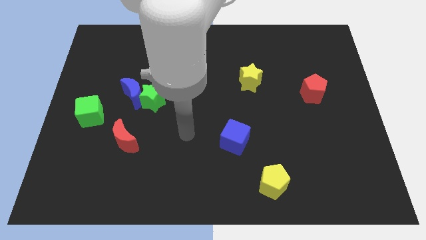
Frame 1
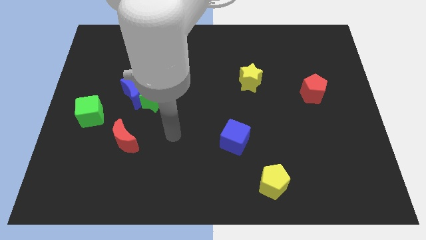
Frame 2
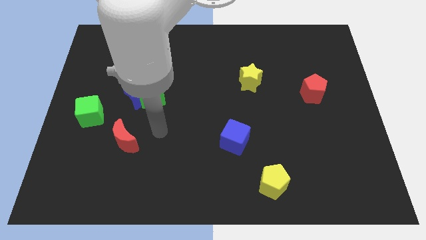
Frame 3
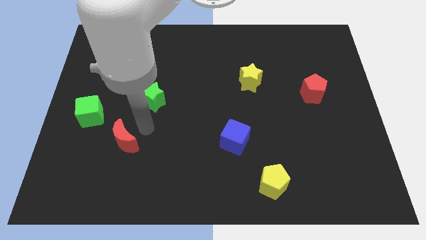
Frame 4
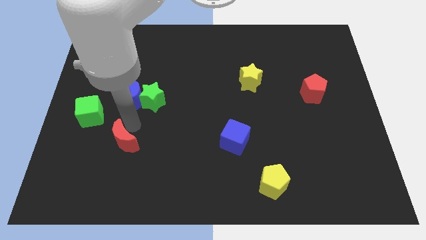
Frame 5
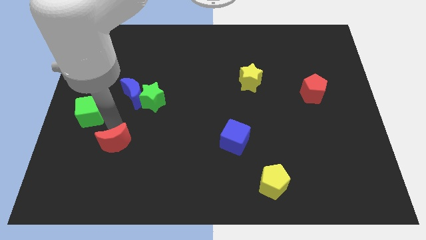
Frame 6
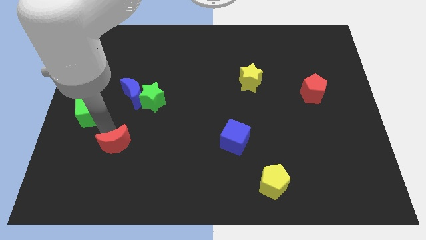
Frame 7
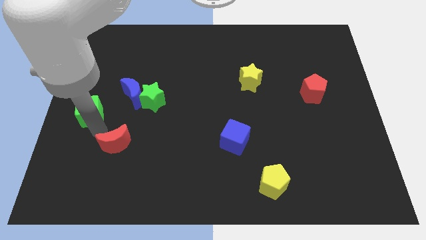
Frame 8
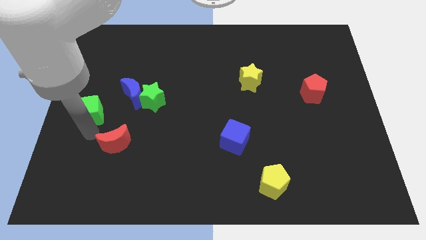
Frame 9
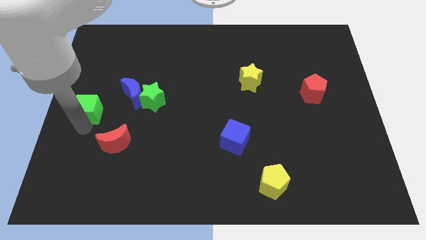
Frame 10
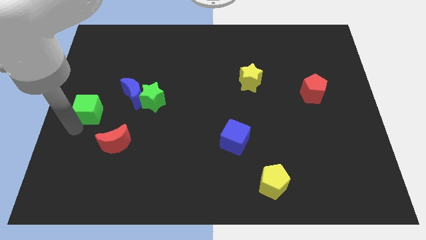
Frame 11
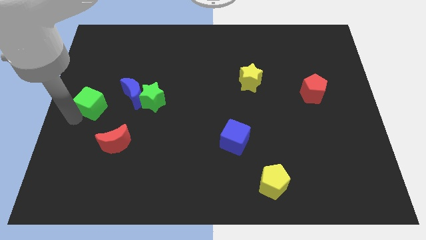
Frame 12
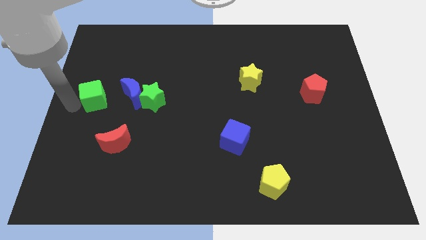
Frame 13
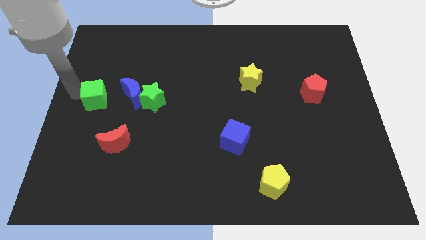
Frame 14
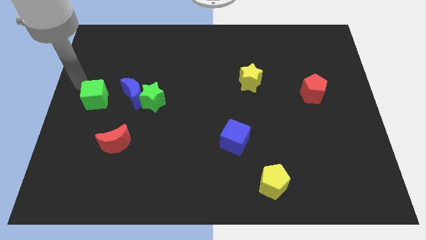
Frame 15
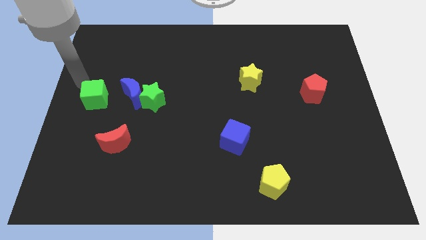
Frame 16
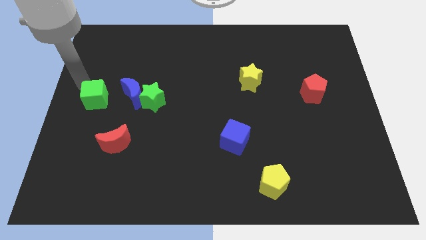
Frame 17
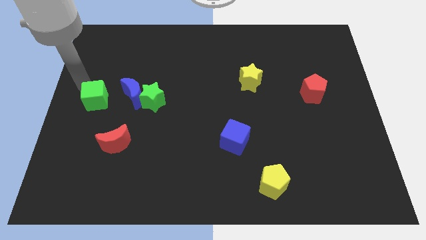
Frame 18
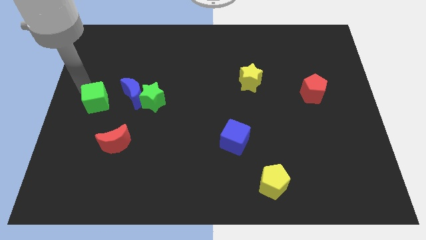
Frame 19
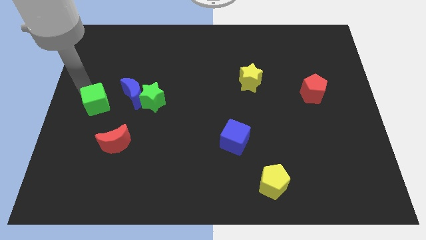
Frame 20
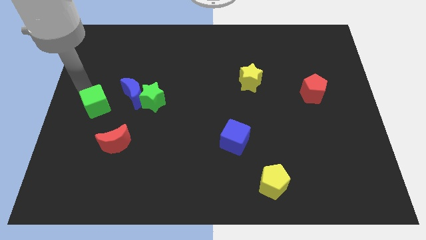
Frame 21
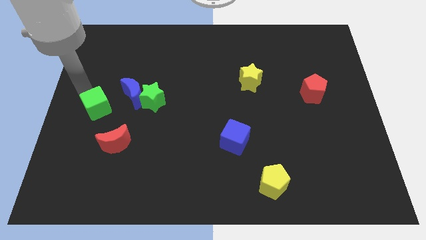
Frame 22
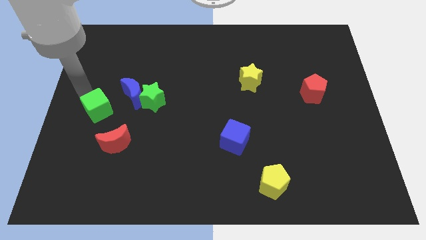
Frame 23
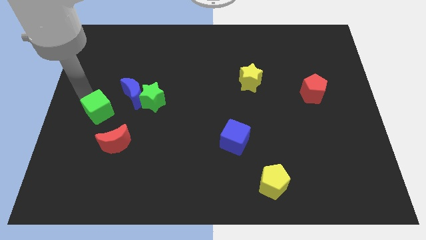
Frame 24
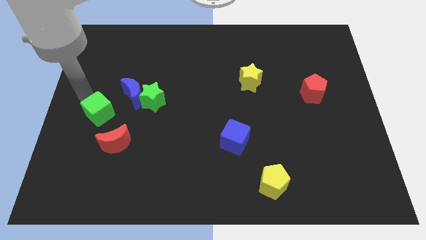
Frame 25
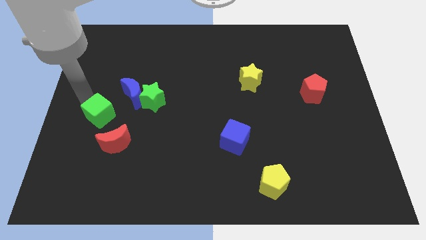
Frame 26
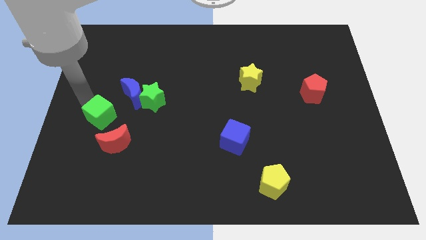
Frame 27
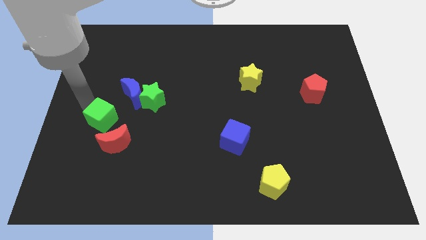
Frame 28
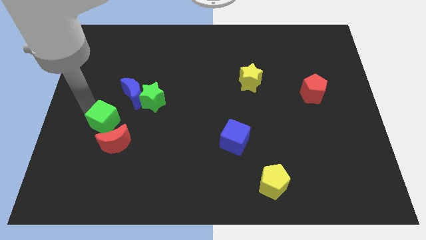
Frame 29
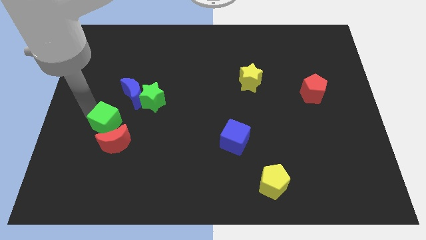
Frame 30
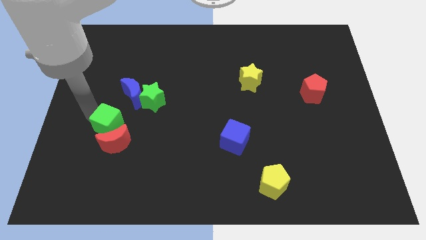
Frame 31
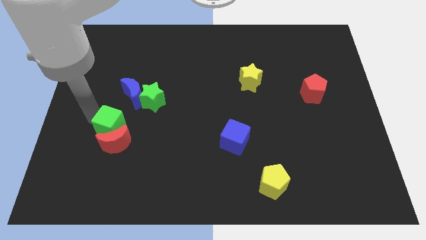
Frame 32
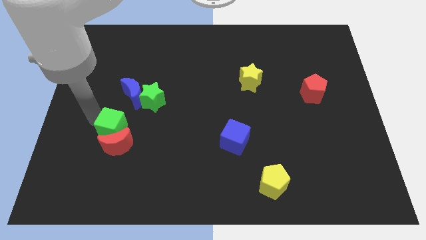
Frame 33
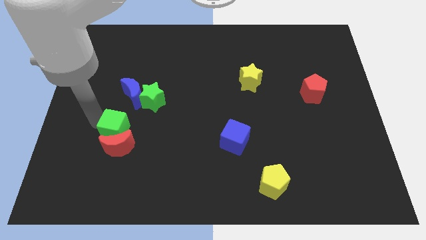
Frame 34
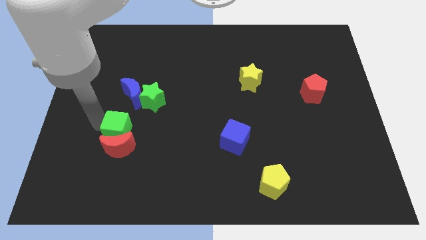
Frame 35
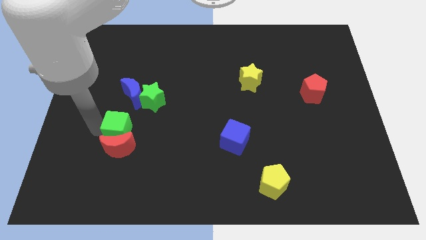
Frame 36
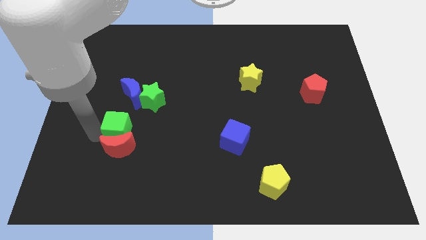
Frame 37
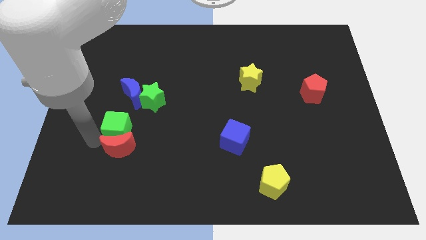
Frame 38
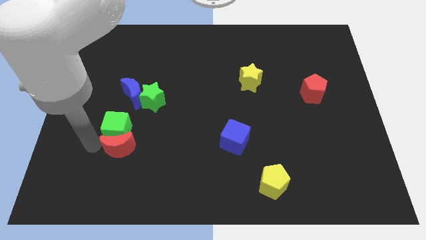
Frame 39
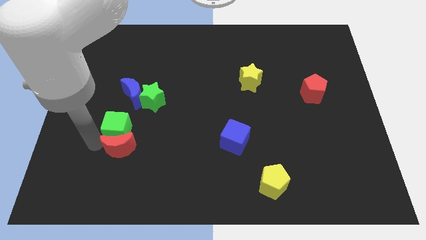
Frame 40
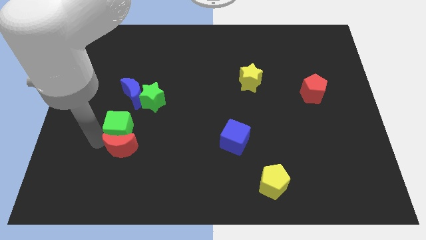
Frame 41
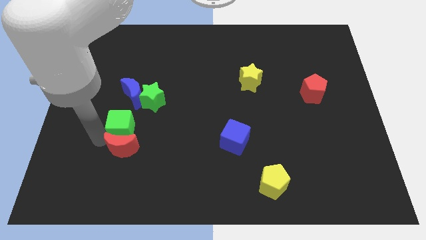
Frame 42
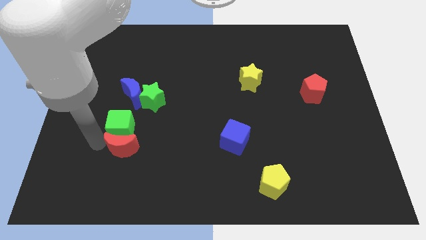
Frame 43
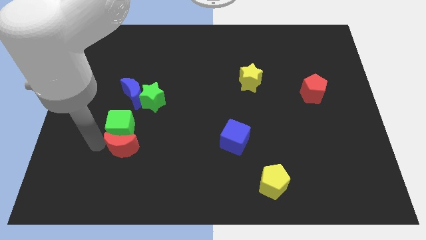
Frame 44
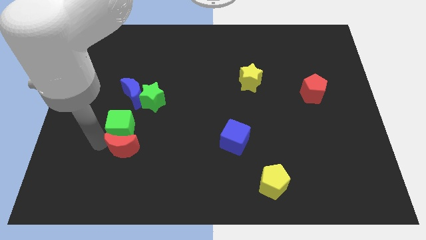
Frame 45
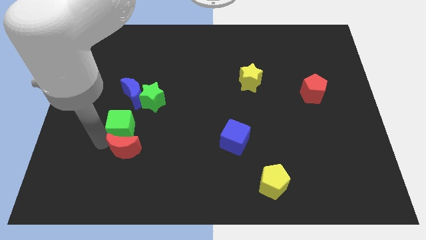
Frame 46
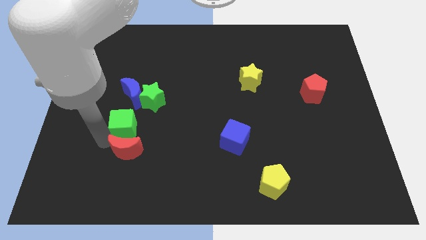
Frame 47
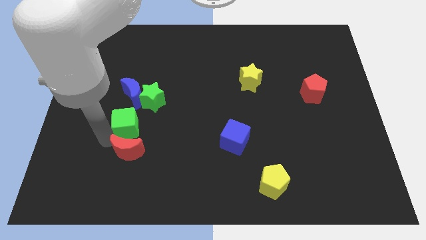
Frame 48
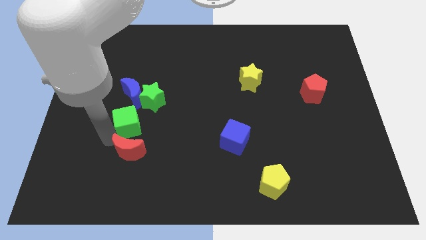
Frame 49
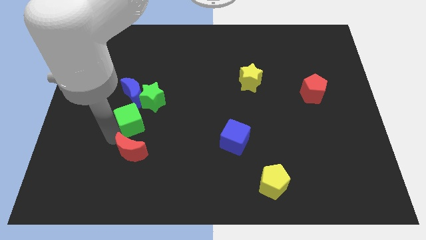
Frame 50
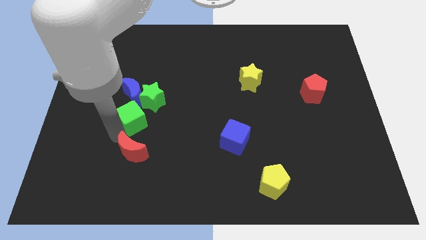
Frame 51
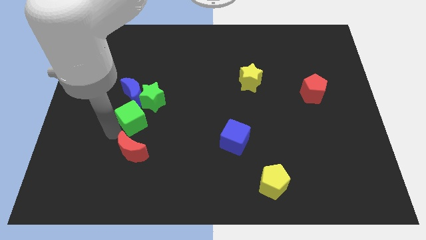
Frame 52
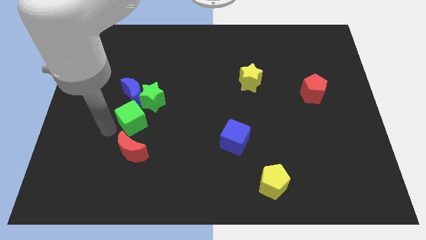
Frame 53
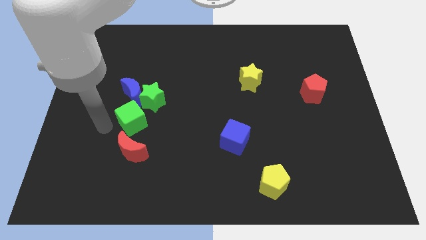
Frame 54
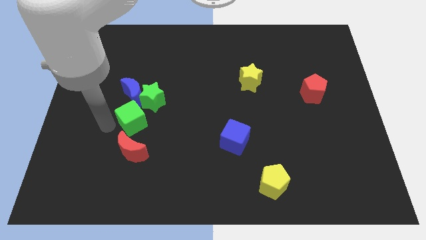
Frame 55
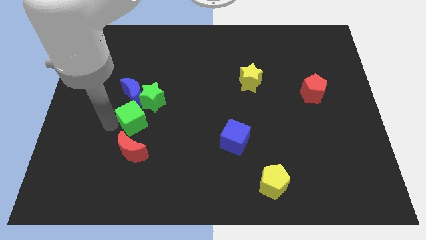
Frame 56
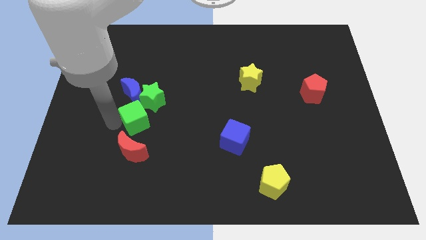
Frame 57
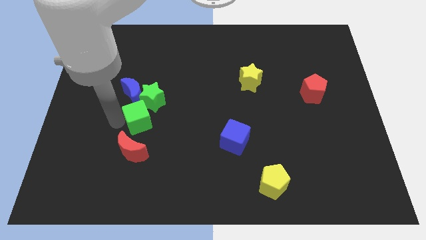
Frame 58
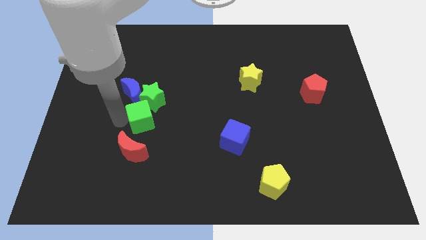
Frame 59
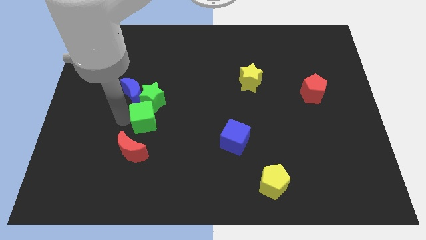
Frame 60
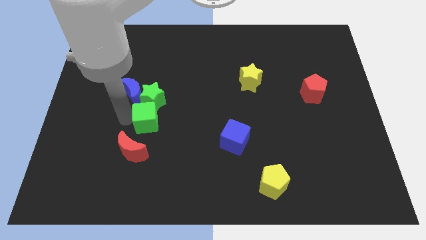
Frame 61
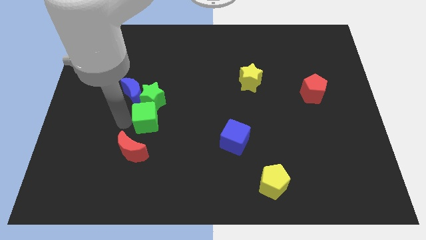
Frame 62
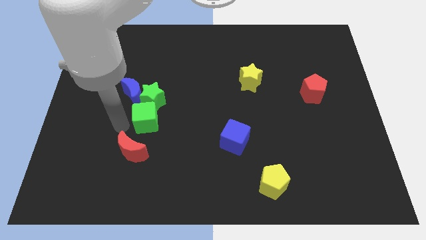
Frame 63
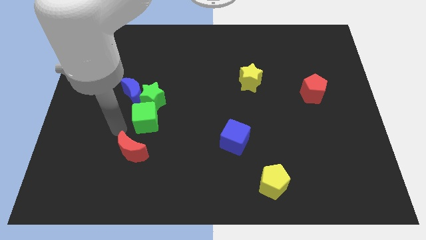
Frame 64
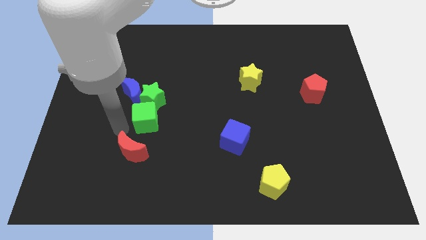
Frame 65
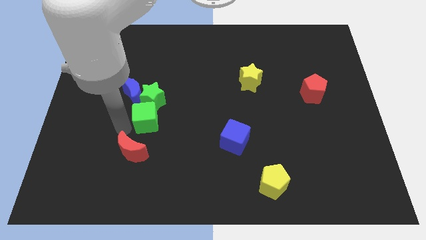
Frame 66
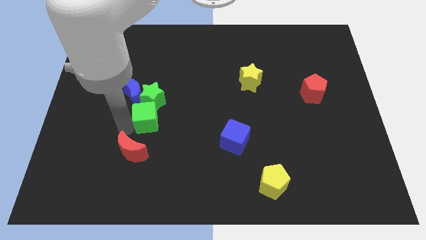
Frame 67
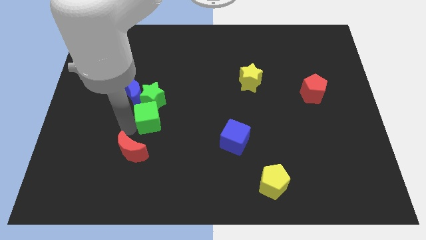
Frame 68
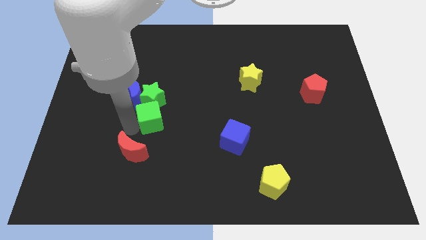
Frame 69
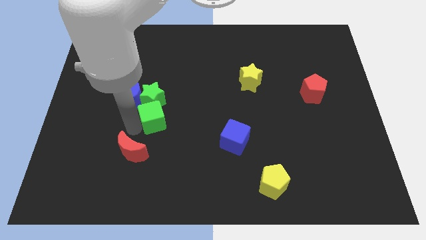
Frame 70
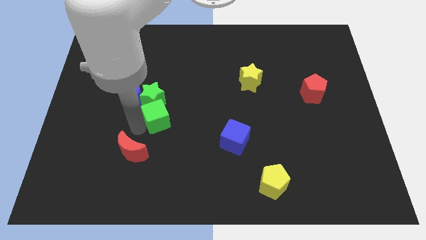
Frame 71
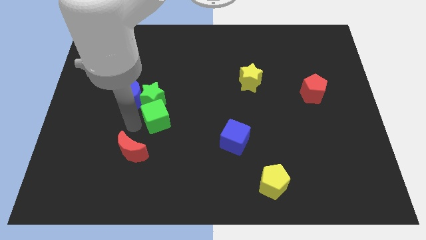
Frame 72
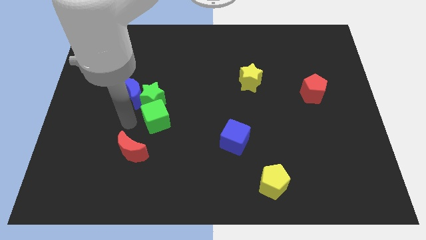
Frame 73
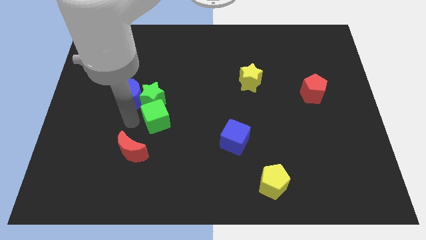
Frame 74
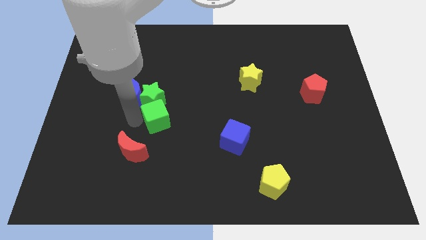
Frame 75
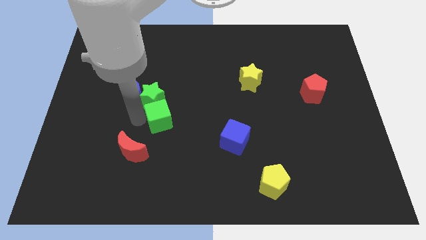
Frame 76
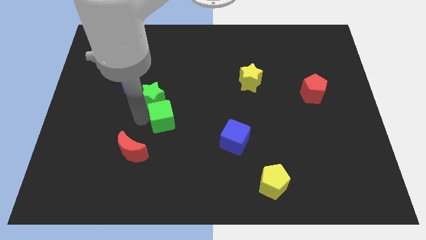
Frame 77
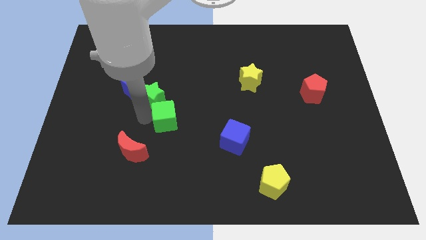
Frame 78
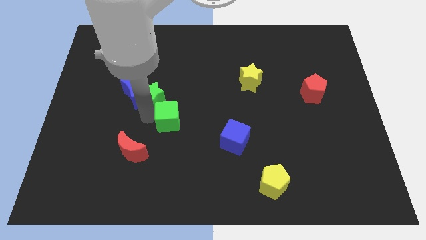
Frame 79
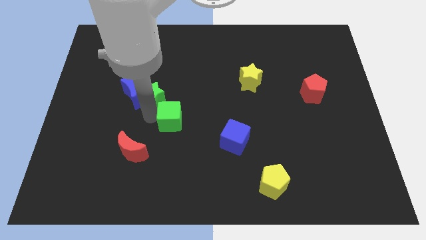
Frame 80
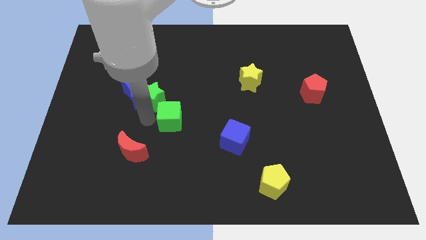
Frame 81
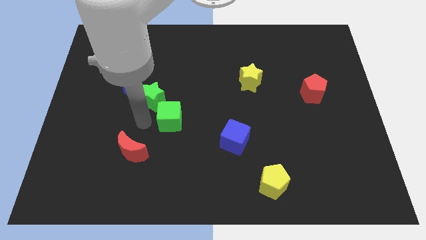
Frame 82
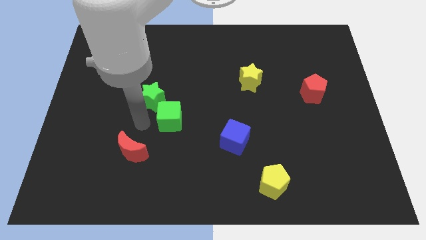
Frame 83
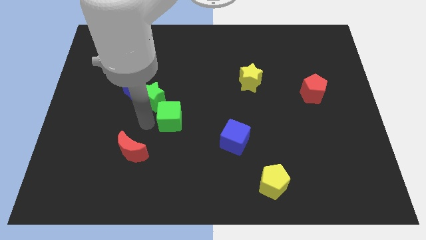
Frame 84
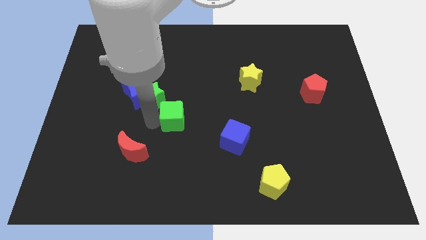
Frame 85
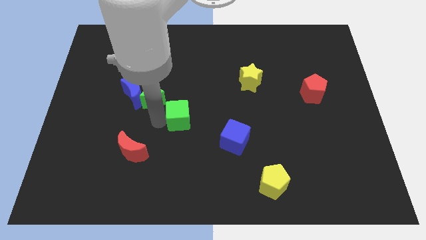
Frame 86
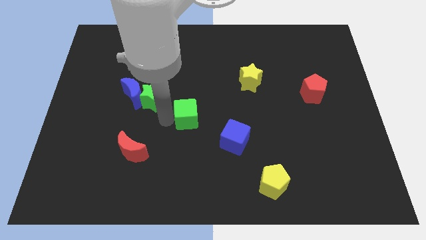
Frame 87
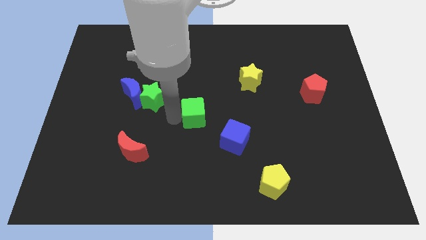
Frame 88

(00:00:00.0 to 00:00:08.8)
push the green cube to the top left of the blue cube
